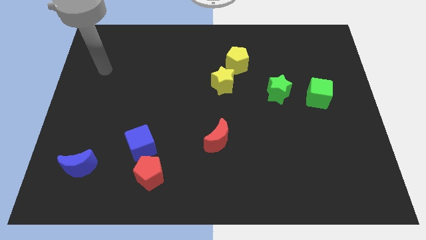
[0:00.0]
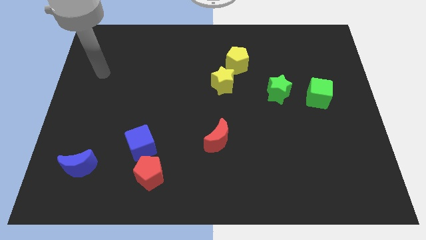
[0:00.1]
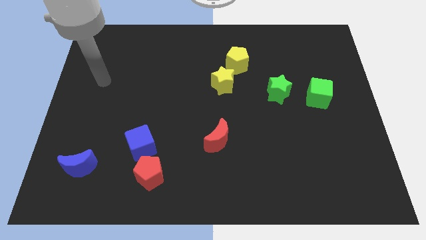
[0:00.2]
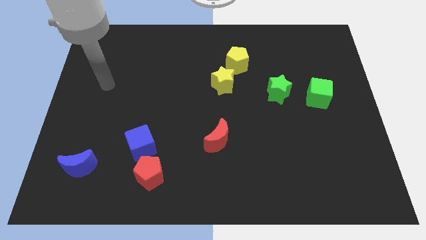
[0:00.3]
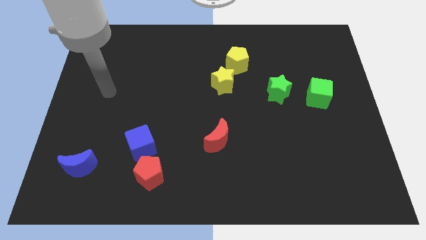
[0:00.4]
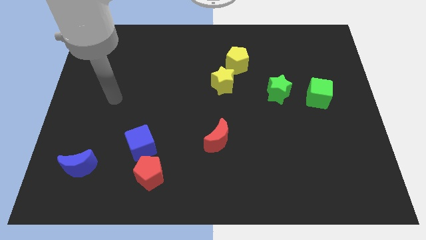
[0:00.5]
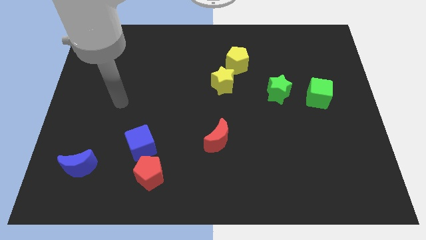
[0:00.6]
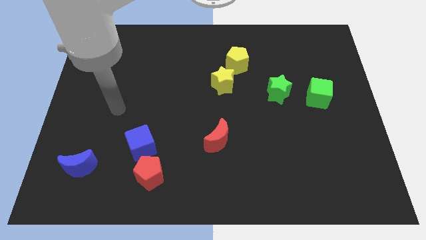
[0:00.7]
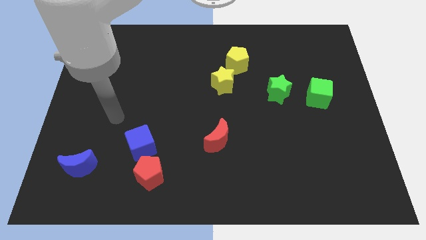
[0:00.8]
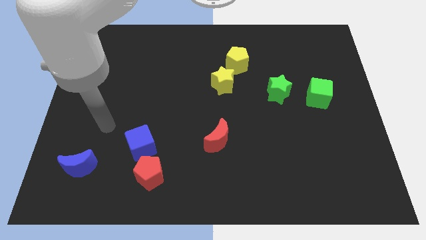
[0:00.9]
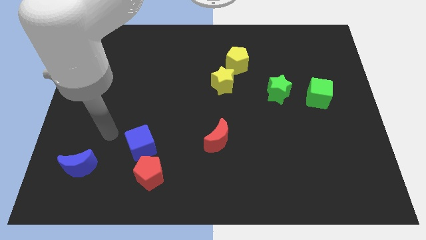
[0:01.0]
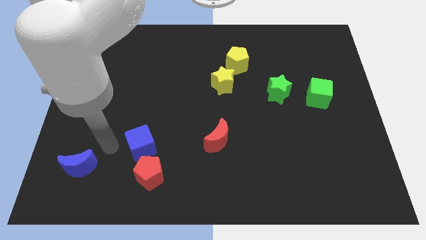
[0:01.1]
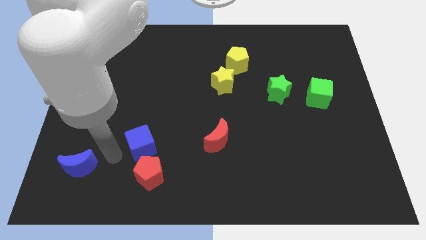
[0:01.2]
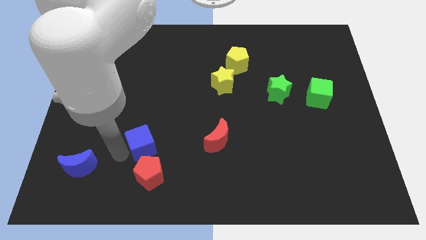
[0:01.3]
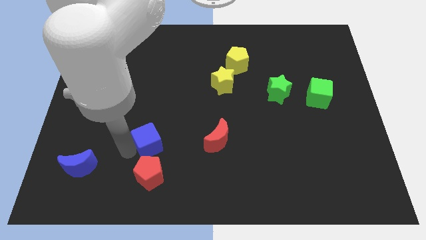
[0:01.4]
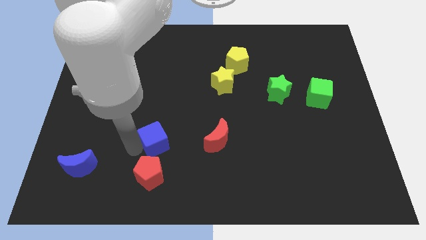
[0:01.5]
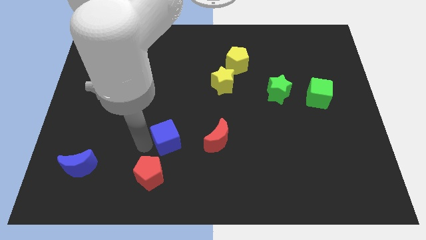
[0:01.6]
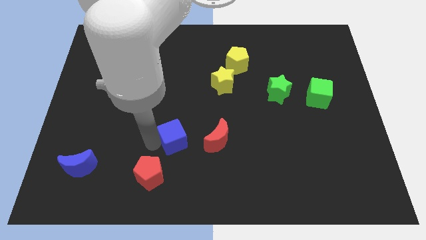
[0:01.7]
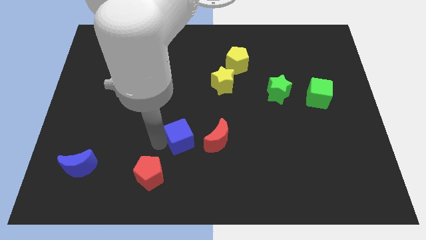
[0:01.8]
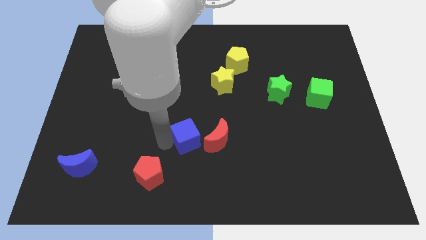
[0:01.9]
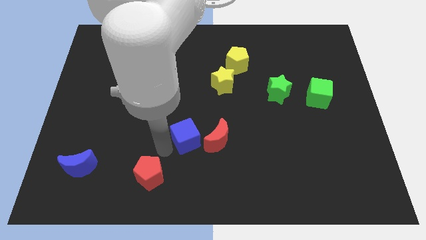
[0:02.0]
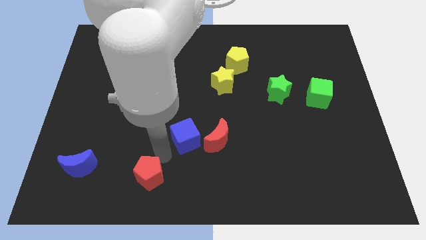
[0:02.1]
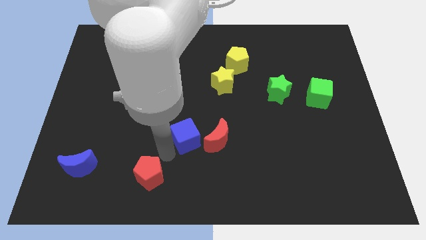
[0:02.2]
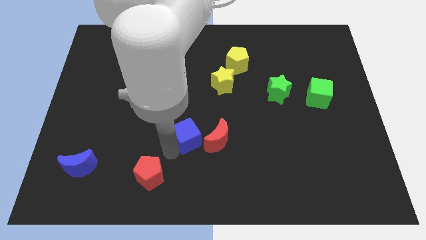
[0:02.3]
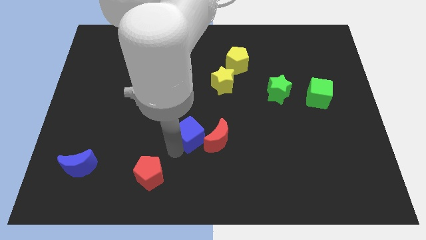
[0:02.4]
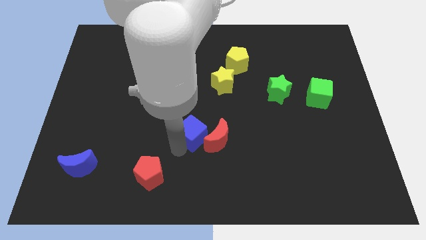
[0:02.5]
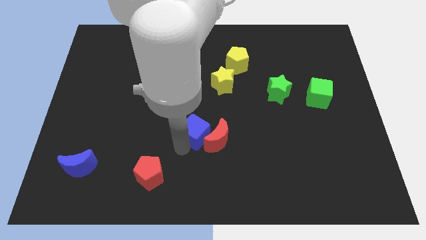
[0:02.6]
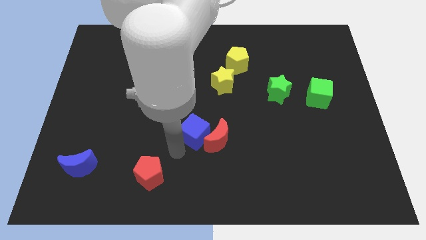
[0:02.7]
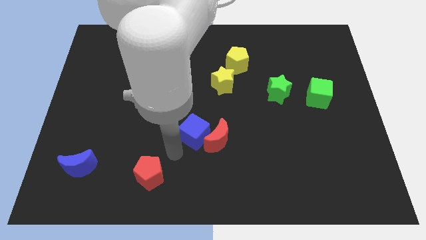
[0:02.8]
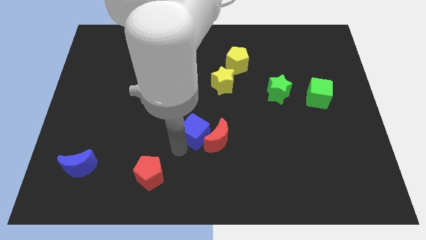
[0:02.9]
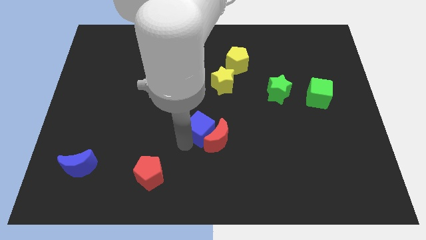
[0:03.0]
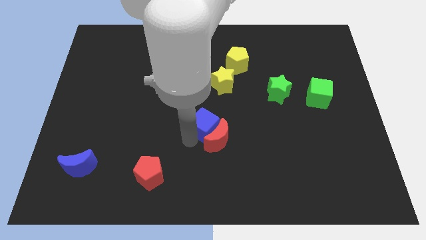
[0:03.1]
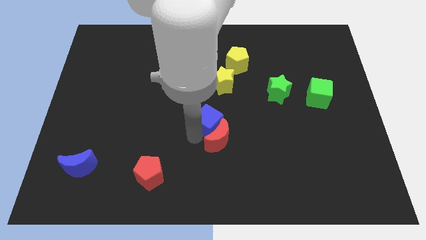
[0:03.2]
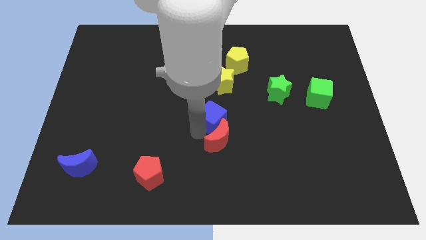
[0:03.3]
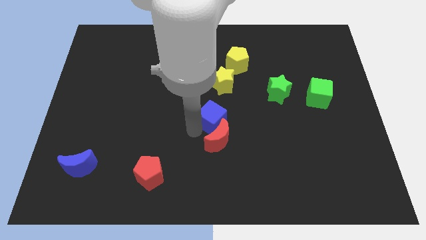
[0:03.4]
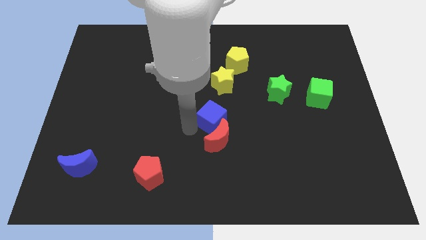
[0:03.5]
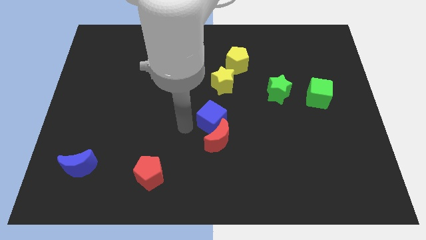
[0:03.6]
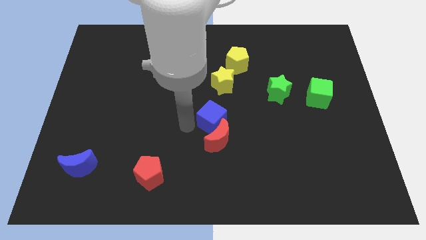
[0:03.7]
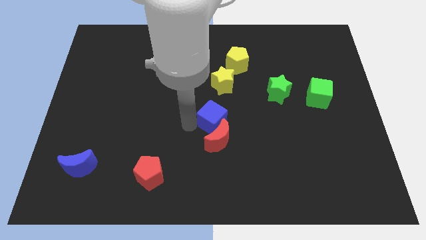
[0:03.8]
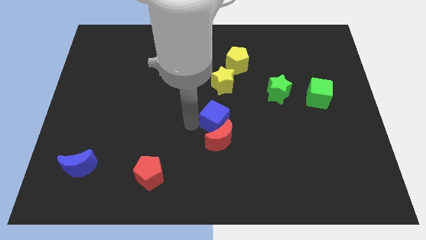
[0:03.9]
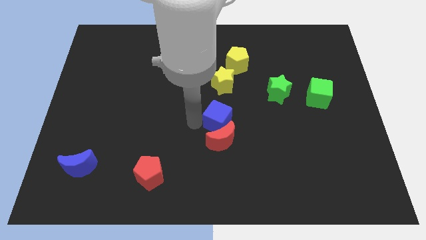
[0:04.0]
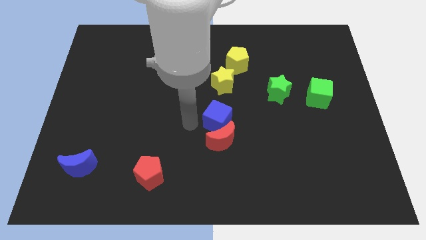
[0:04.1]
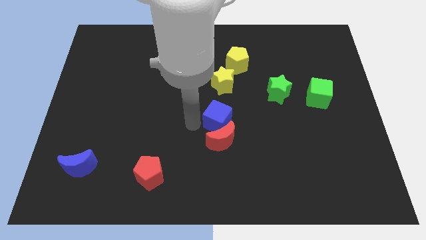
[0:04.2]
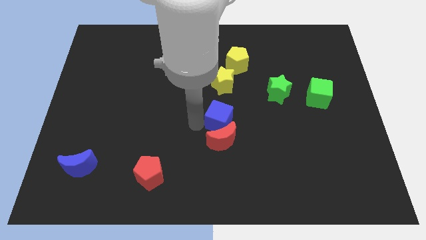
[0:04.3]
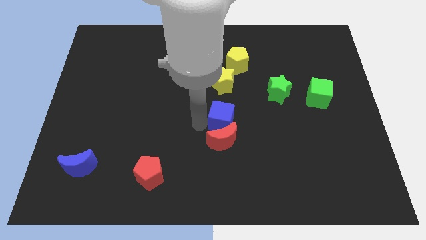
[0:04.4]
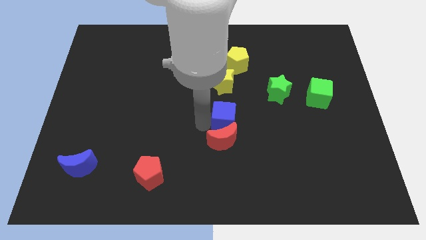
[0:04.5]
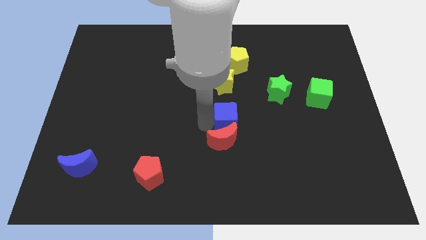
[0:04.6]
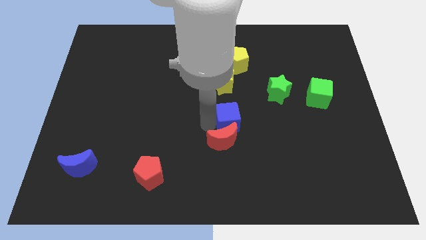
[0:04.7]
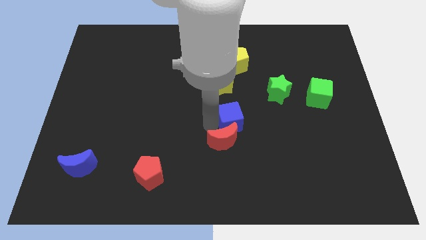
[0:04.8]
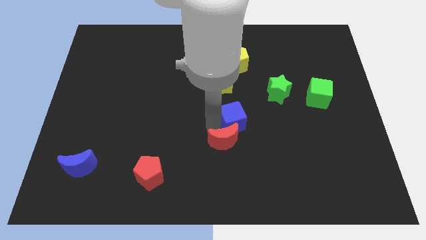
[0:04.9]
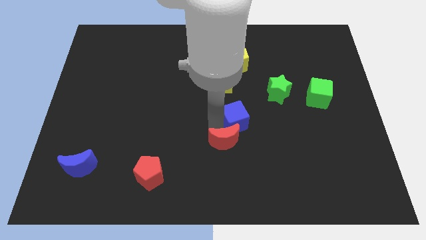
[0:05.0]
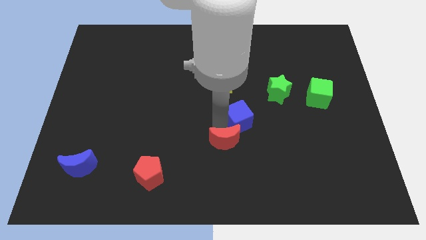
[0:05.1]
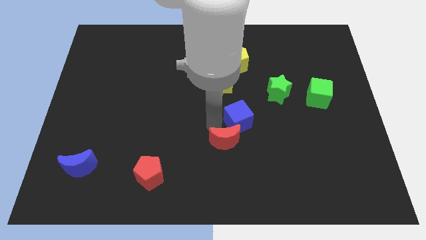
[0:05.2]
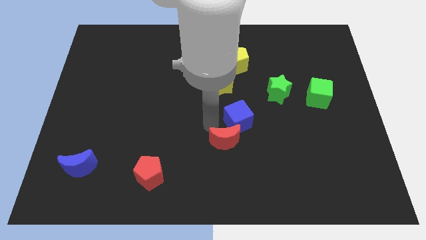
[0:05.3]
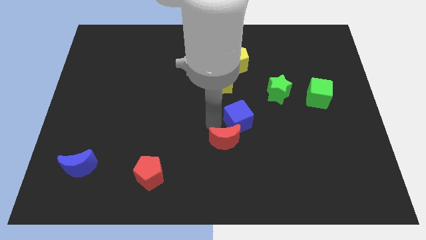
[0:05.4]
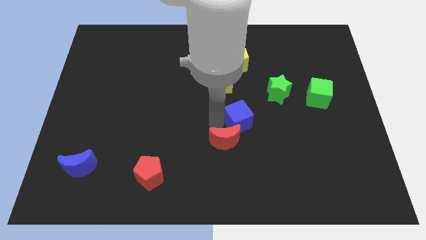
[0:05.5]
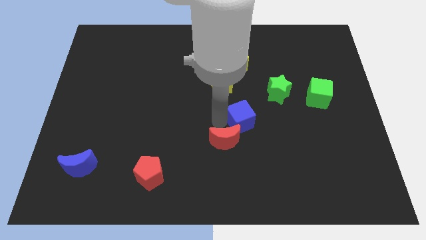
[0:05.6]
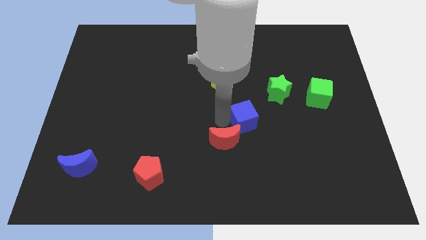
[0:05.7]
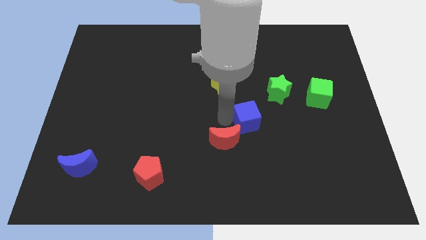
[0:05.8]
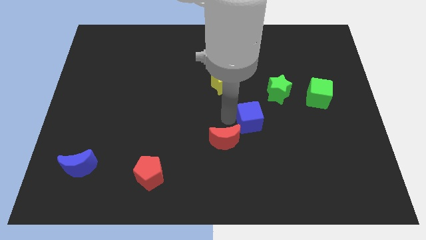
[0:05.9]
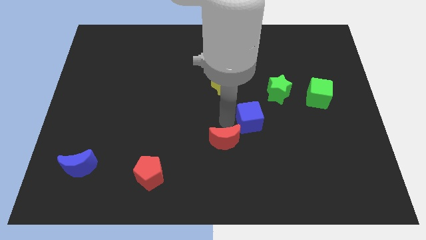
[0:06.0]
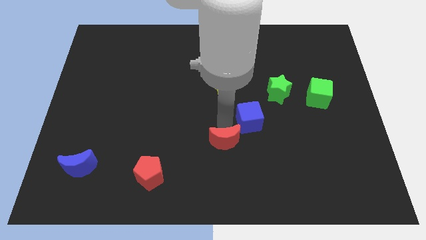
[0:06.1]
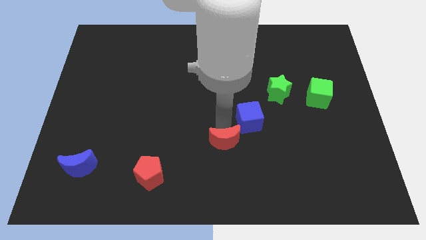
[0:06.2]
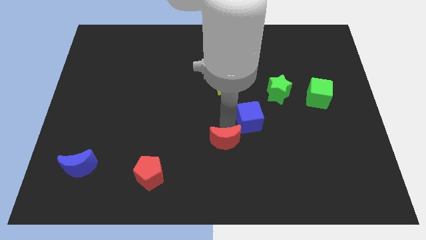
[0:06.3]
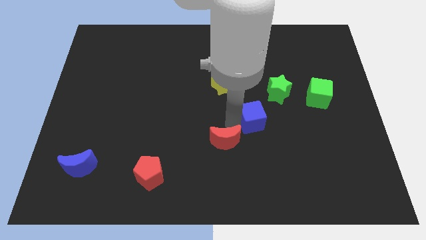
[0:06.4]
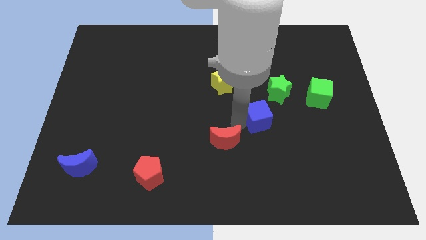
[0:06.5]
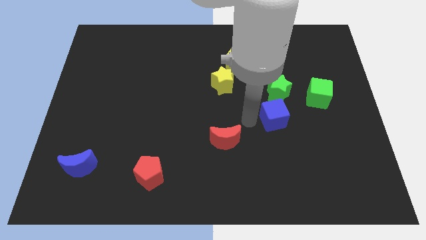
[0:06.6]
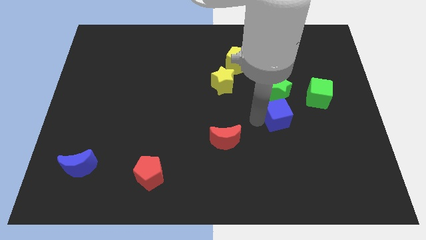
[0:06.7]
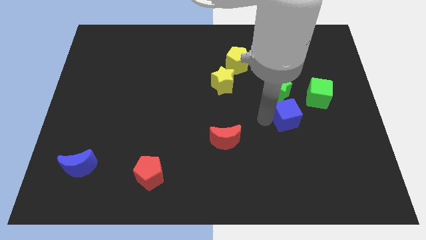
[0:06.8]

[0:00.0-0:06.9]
push the blue cube to the bottom right of the green star
